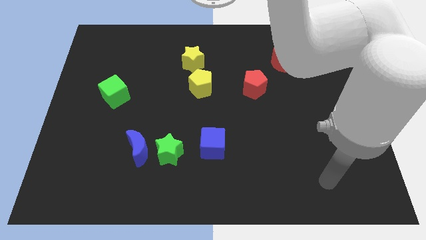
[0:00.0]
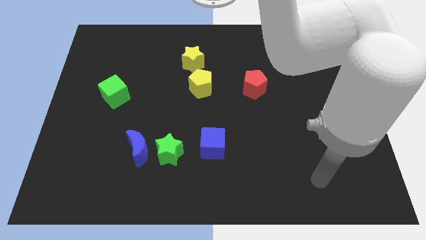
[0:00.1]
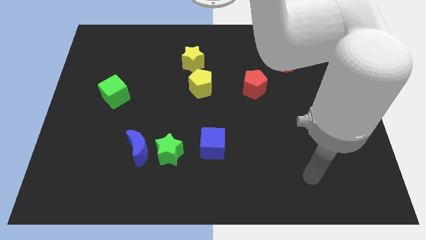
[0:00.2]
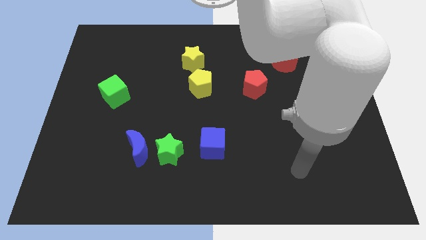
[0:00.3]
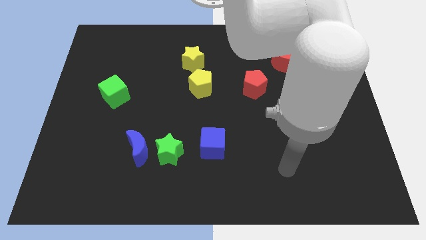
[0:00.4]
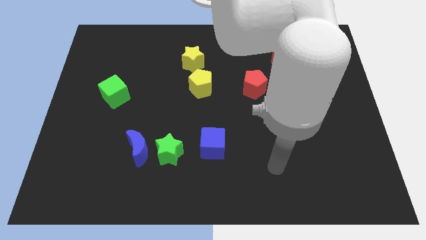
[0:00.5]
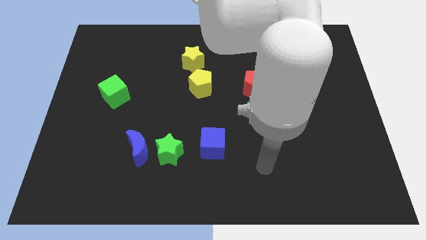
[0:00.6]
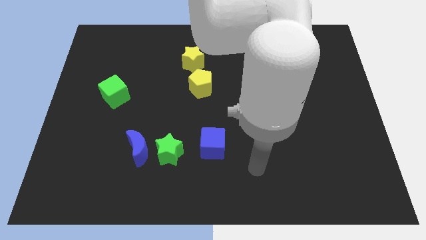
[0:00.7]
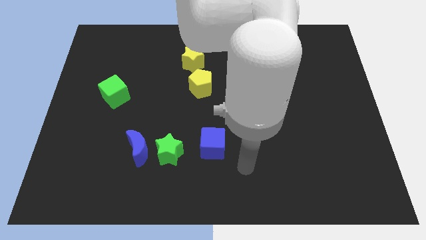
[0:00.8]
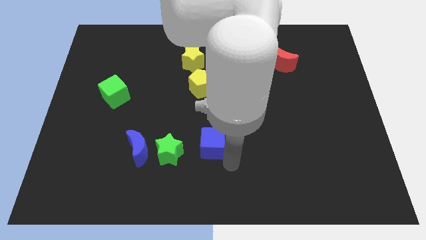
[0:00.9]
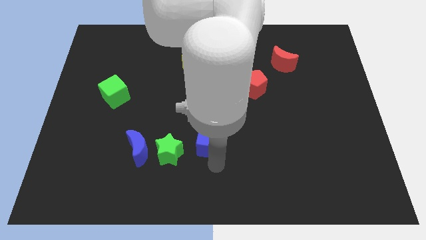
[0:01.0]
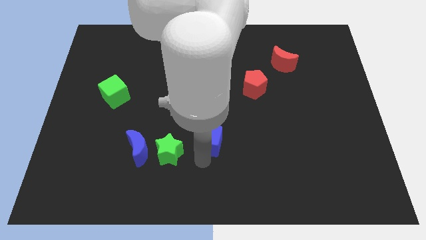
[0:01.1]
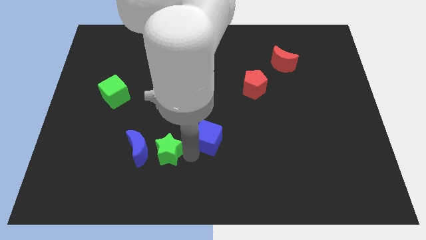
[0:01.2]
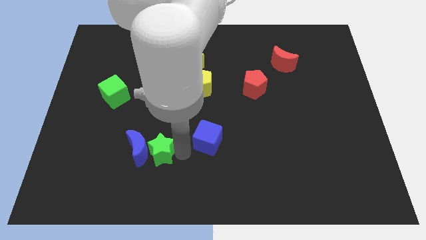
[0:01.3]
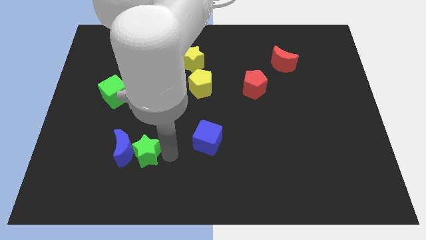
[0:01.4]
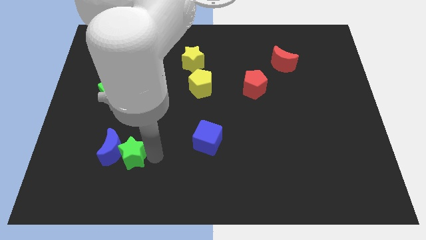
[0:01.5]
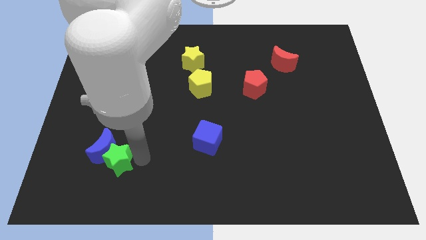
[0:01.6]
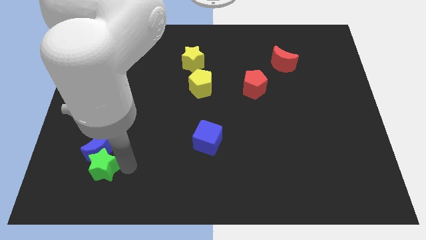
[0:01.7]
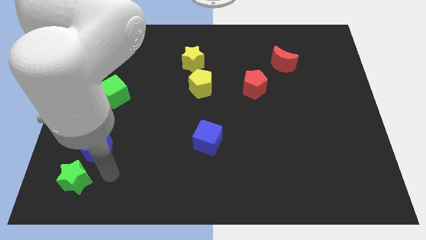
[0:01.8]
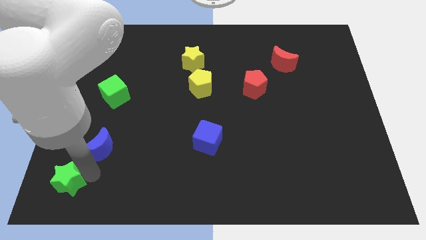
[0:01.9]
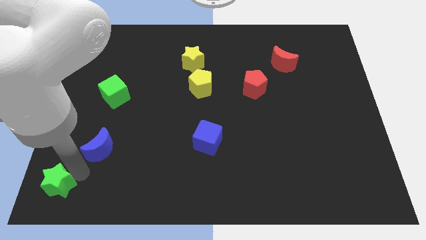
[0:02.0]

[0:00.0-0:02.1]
pull the blue moon apart from the green star

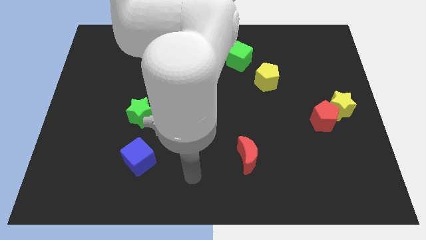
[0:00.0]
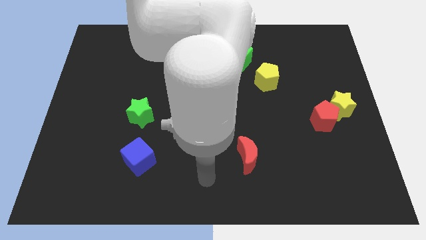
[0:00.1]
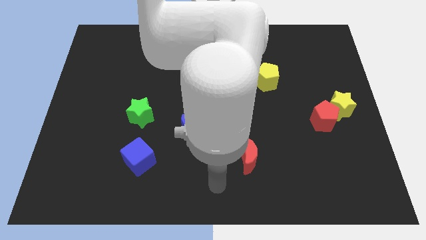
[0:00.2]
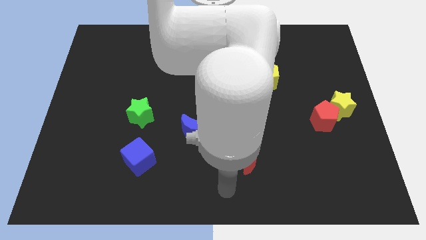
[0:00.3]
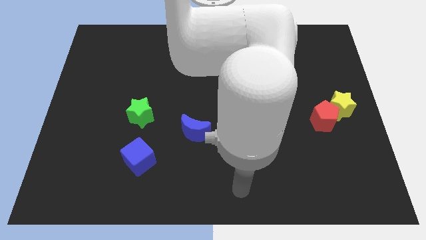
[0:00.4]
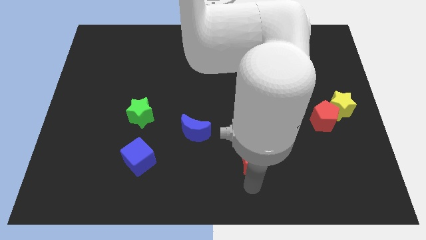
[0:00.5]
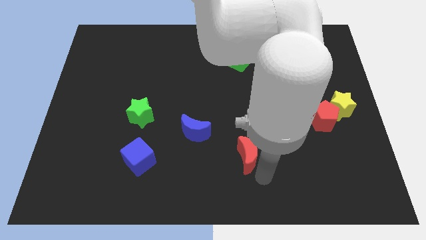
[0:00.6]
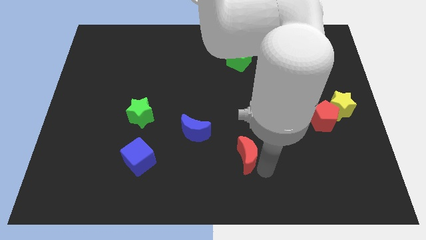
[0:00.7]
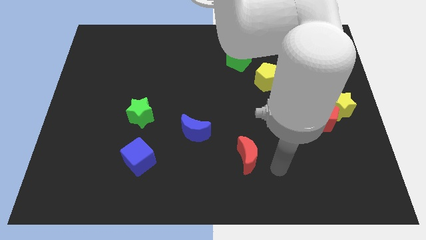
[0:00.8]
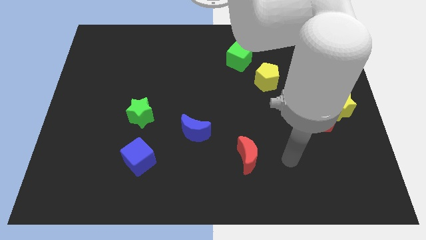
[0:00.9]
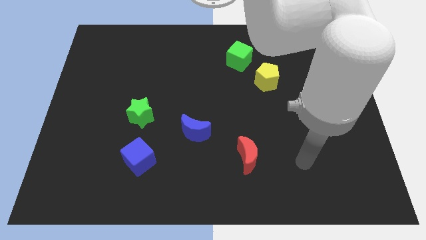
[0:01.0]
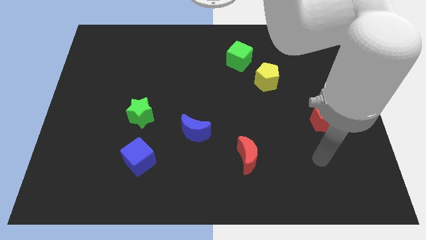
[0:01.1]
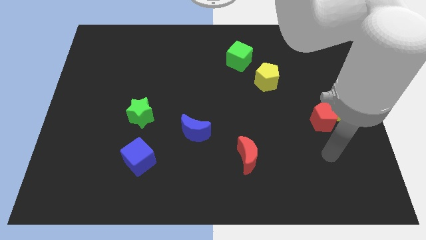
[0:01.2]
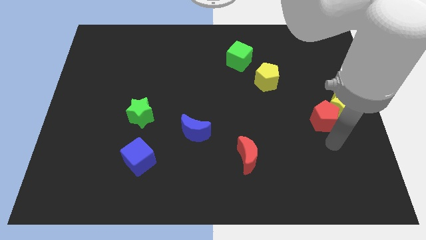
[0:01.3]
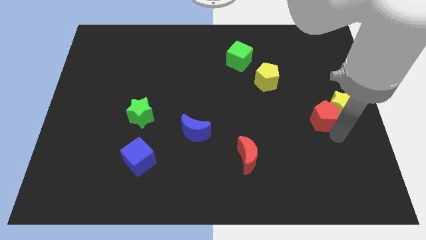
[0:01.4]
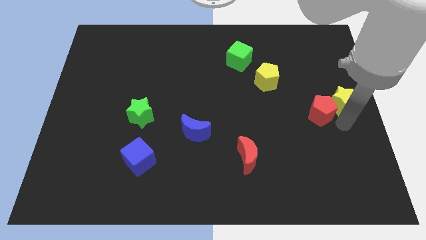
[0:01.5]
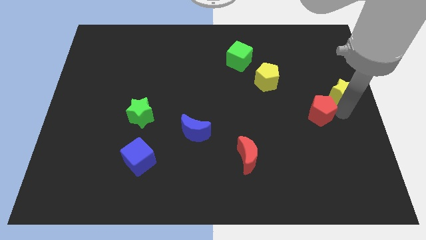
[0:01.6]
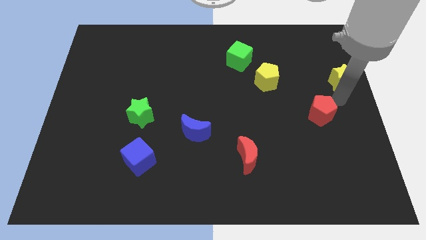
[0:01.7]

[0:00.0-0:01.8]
pull the red pentagon apart from the yellow star

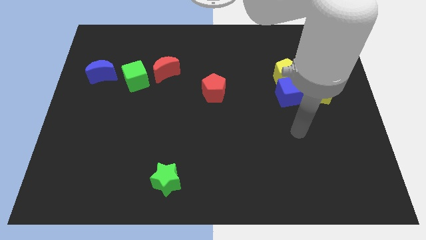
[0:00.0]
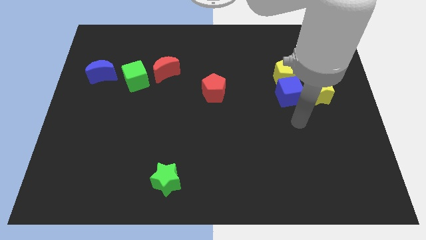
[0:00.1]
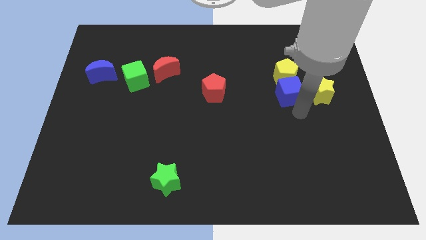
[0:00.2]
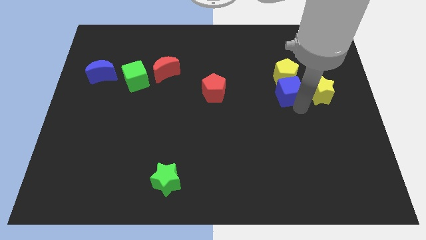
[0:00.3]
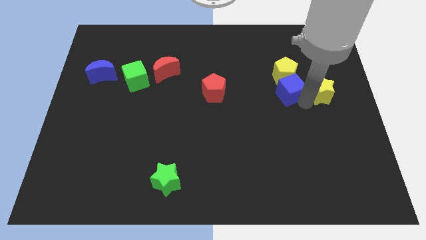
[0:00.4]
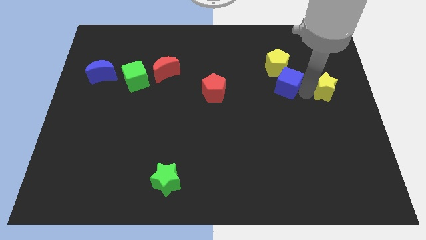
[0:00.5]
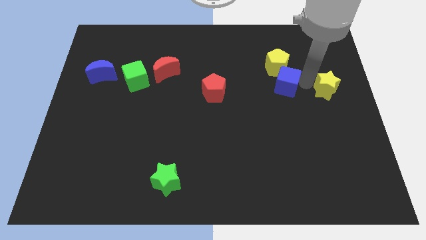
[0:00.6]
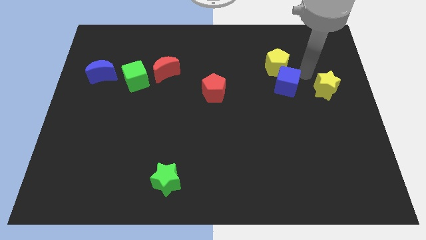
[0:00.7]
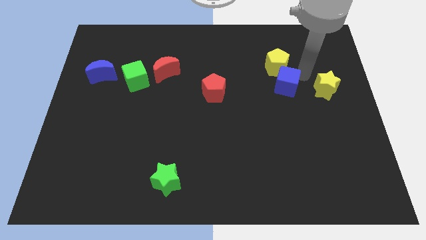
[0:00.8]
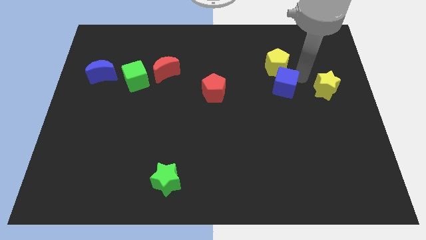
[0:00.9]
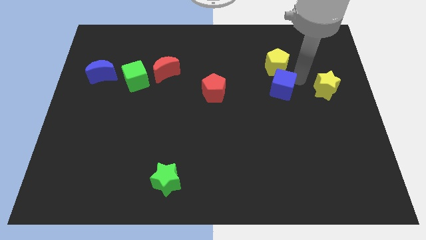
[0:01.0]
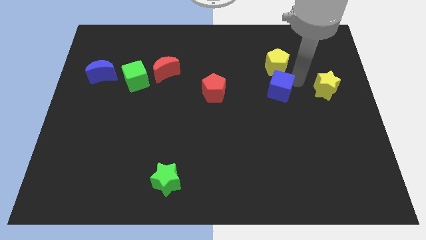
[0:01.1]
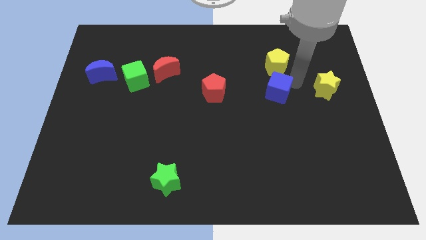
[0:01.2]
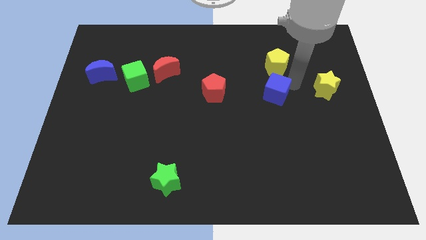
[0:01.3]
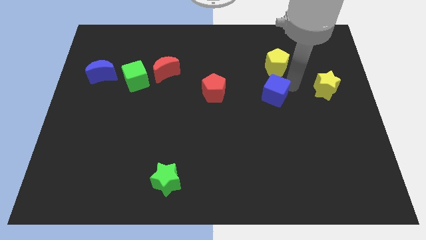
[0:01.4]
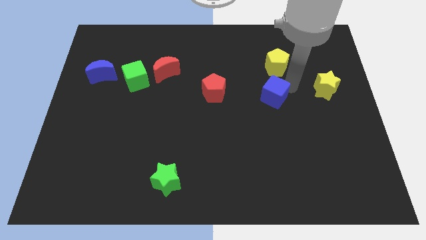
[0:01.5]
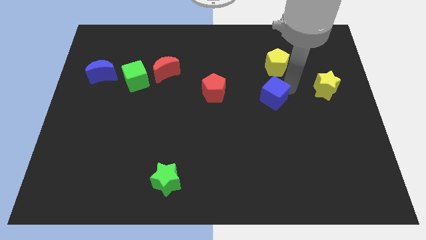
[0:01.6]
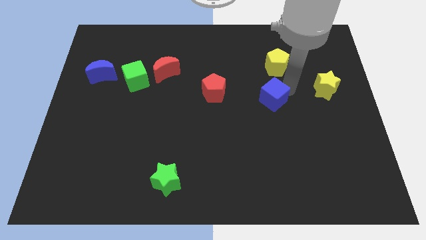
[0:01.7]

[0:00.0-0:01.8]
move the blue cube away from the yellow pentagon and yellow star

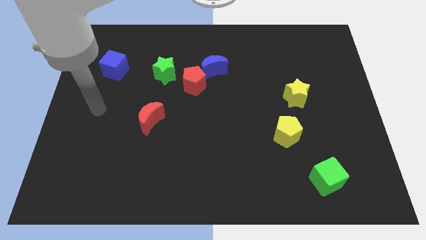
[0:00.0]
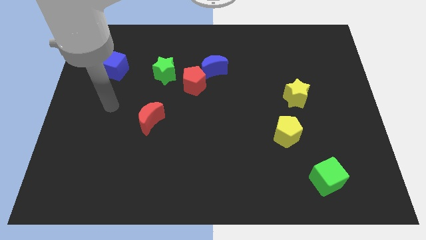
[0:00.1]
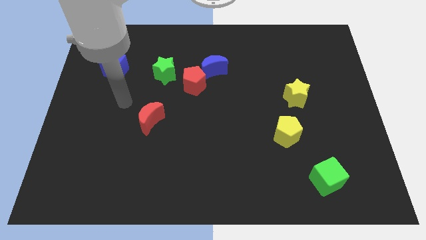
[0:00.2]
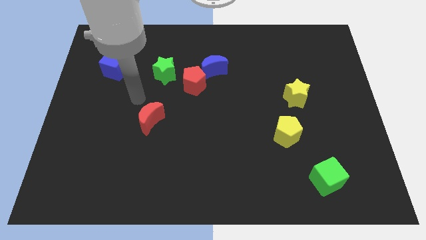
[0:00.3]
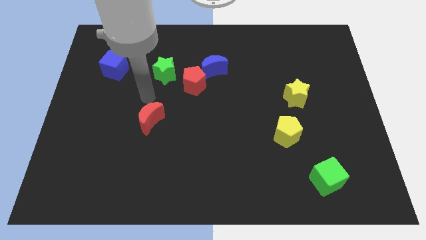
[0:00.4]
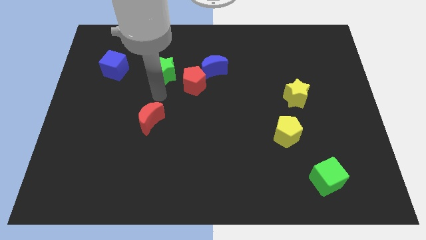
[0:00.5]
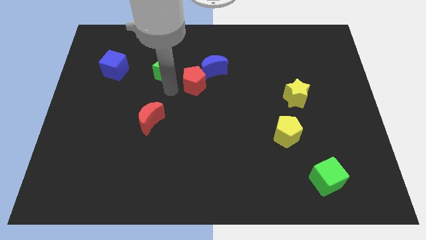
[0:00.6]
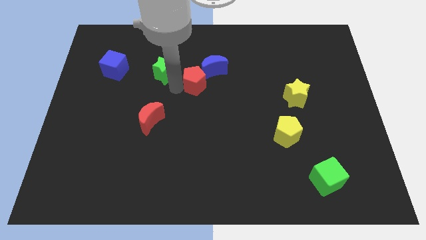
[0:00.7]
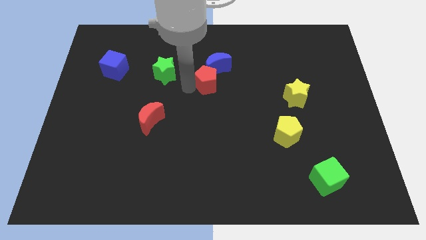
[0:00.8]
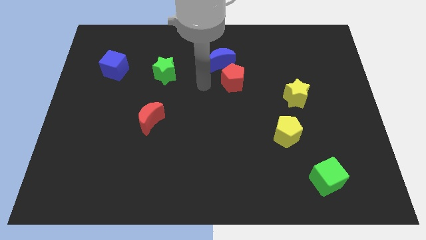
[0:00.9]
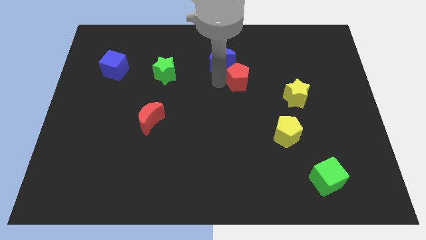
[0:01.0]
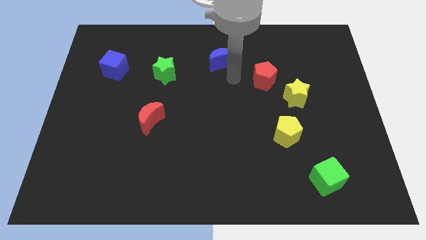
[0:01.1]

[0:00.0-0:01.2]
move the blue moon away from the red pentagon

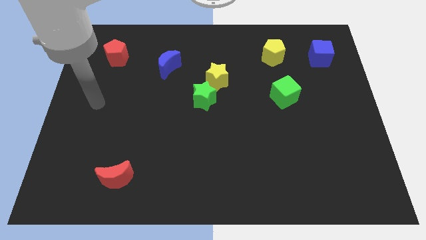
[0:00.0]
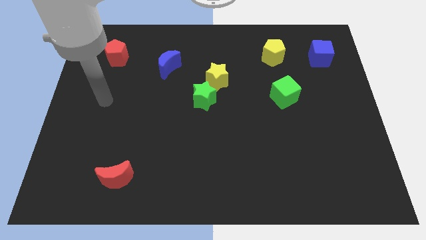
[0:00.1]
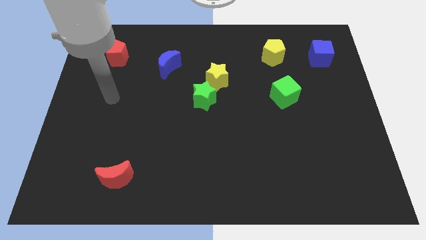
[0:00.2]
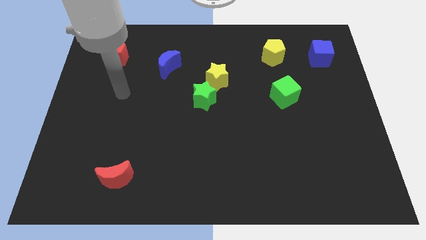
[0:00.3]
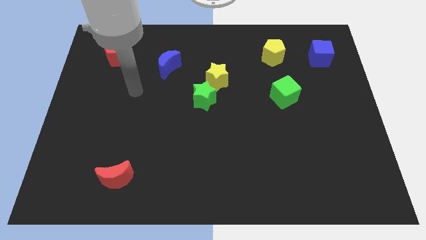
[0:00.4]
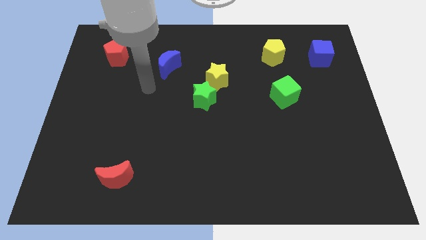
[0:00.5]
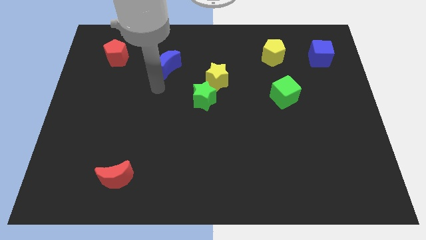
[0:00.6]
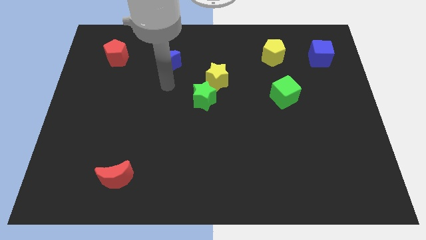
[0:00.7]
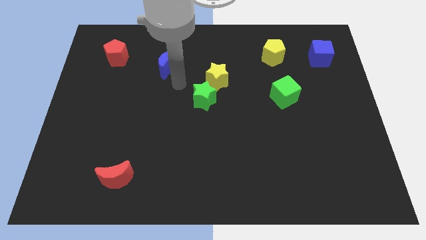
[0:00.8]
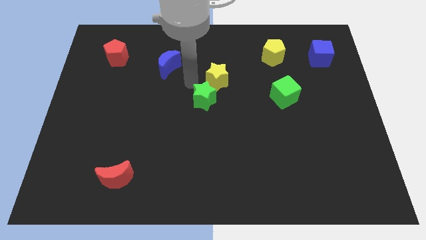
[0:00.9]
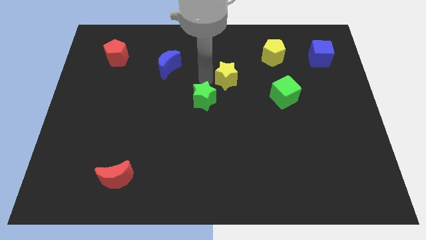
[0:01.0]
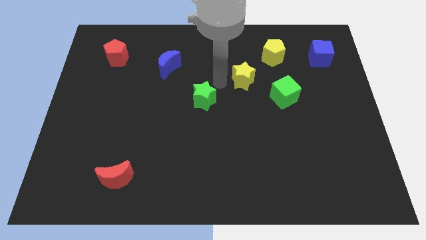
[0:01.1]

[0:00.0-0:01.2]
pull the green star apart from the yellow star

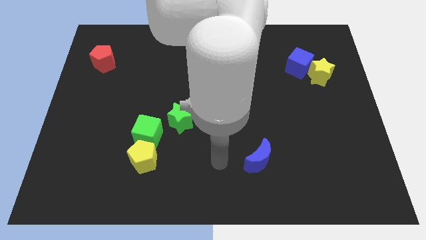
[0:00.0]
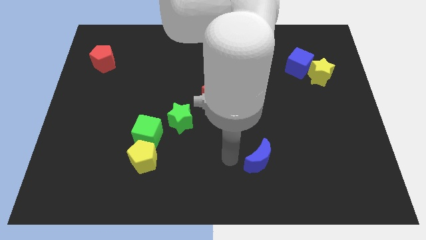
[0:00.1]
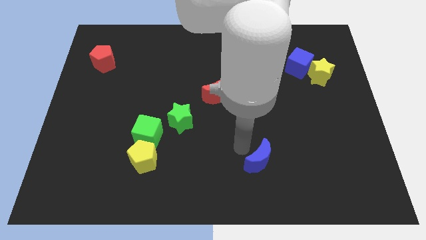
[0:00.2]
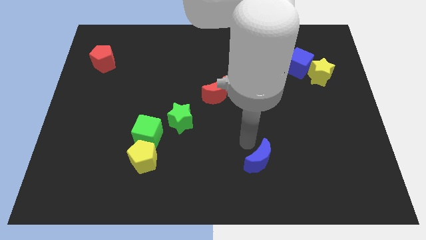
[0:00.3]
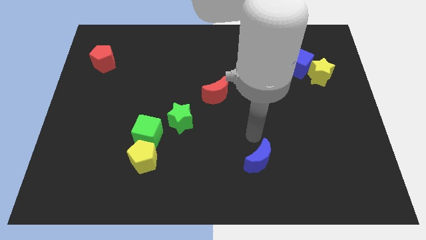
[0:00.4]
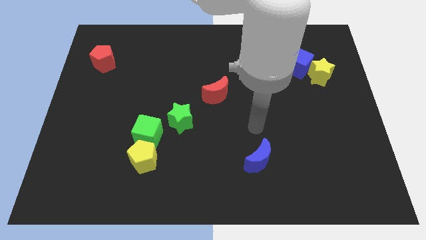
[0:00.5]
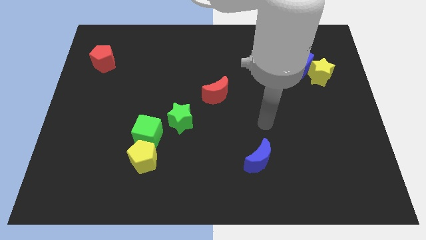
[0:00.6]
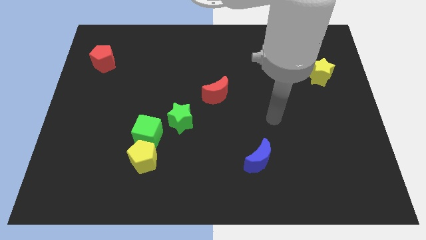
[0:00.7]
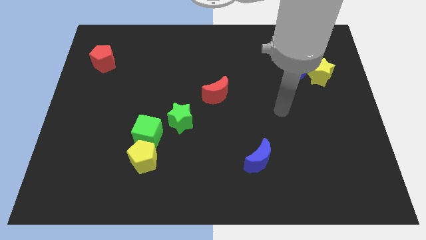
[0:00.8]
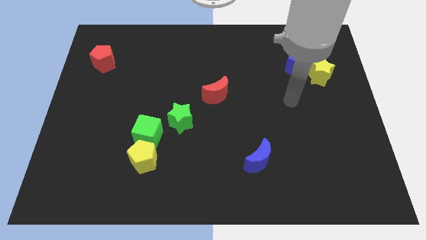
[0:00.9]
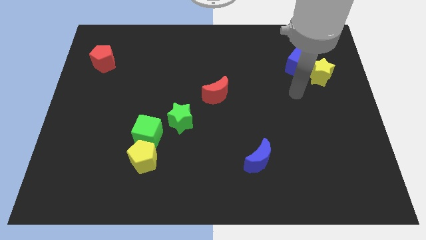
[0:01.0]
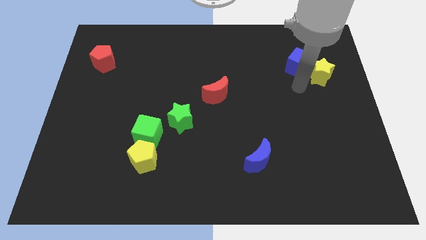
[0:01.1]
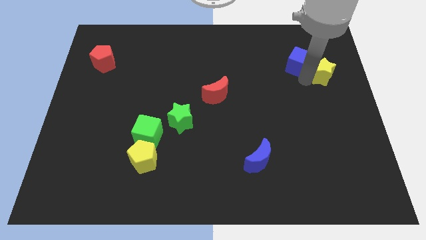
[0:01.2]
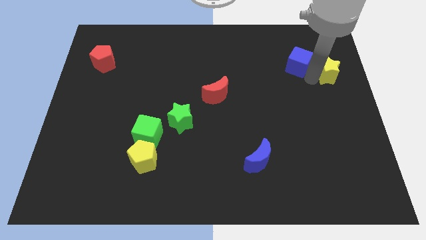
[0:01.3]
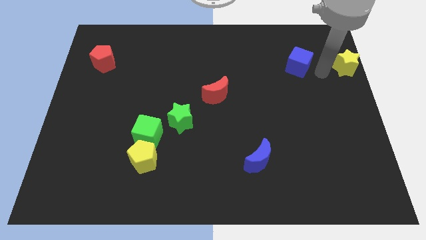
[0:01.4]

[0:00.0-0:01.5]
separate the blue cube from the yellow star
